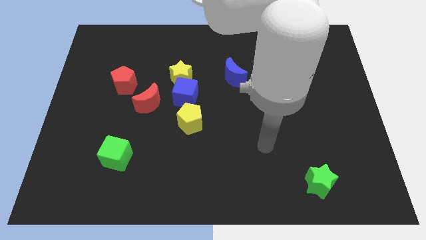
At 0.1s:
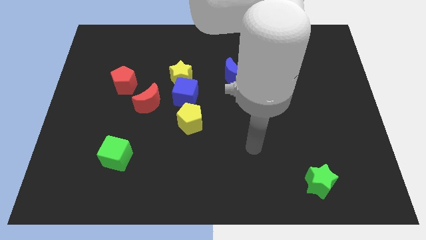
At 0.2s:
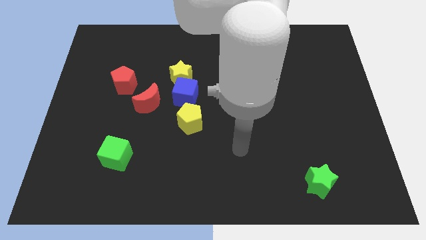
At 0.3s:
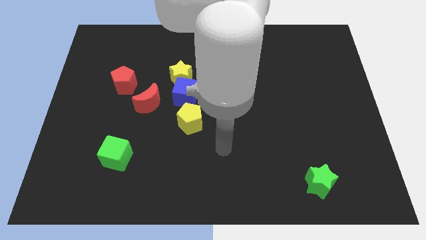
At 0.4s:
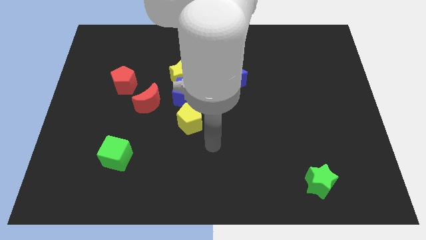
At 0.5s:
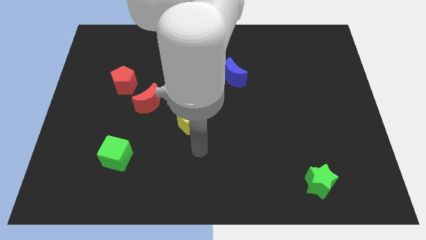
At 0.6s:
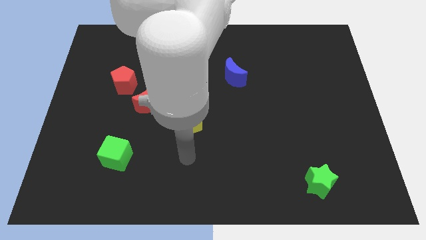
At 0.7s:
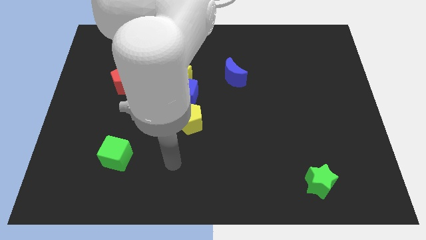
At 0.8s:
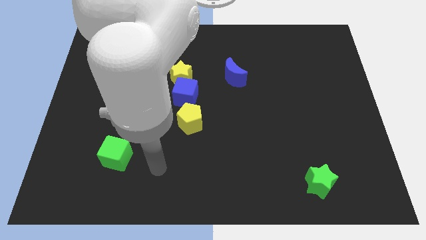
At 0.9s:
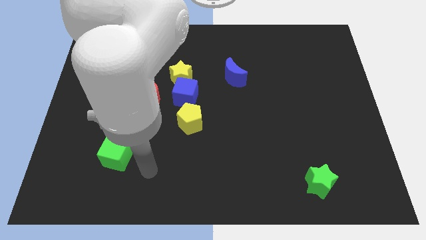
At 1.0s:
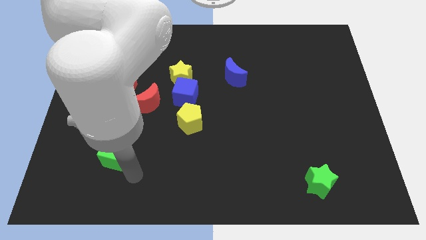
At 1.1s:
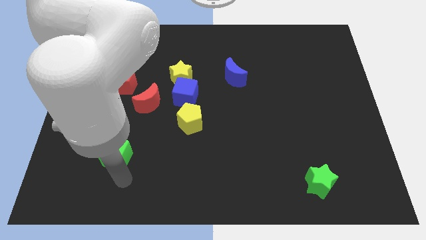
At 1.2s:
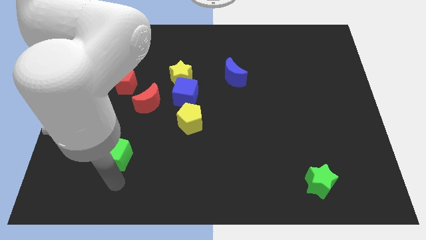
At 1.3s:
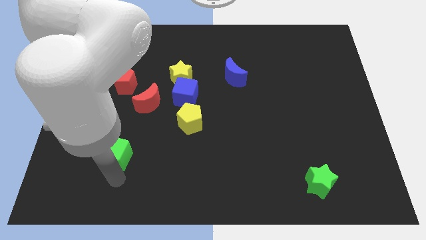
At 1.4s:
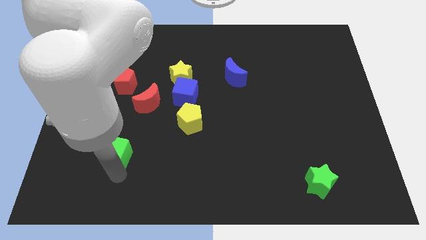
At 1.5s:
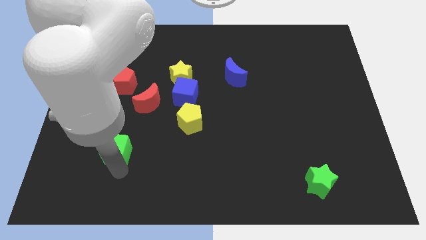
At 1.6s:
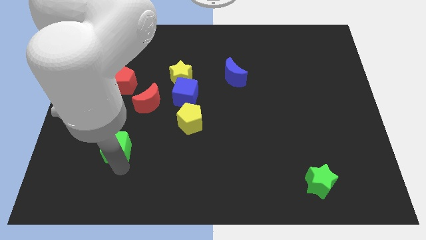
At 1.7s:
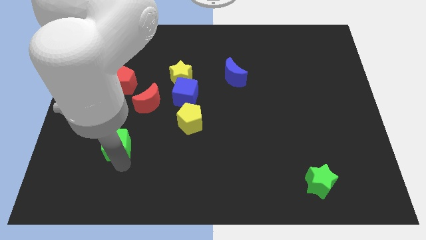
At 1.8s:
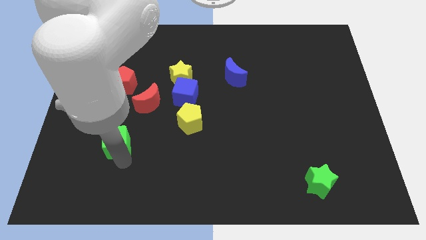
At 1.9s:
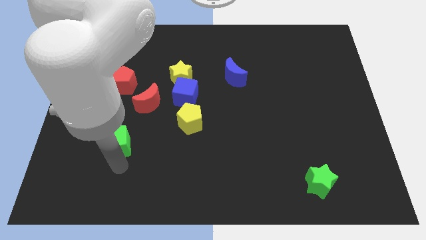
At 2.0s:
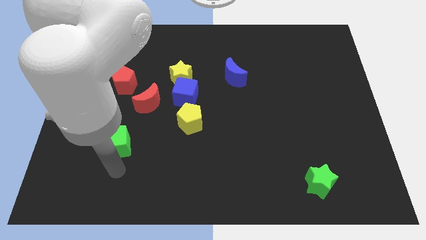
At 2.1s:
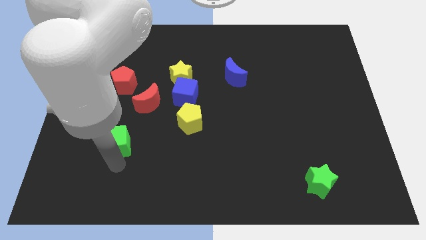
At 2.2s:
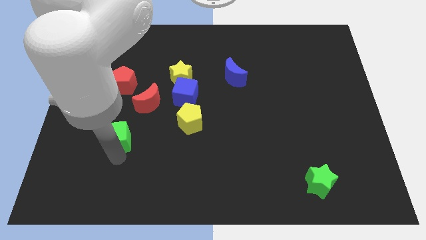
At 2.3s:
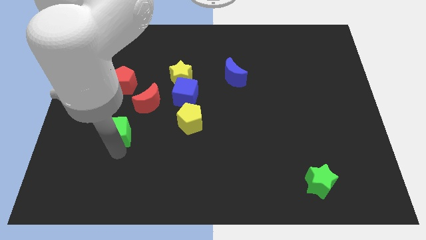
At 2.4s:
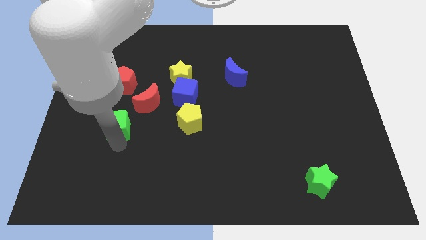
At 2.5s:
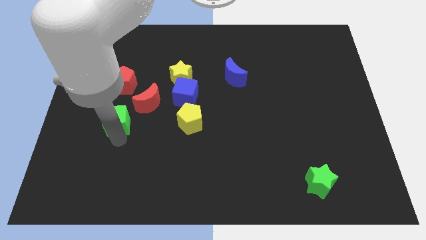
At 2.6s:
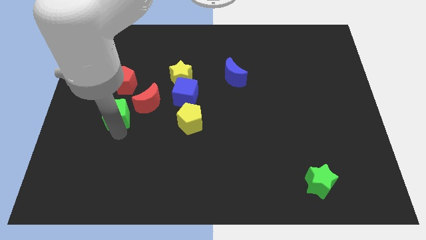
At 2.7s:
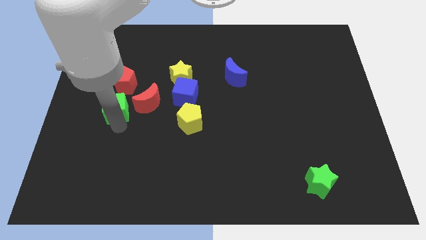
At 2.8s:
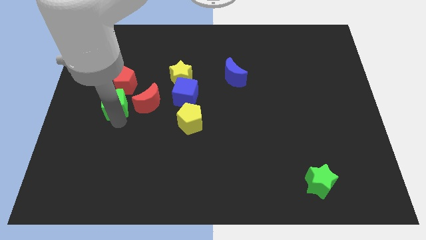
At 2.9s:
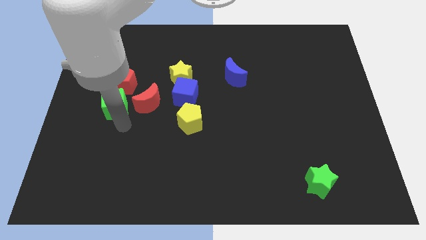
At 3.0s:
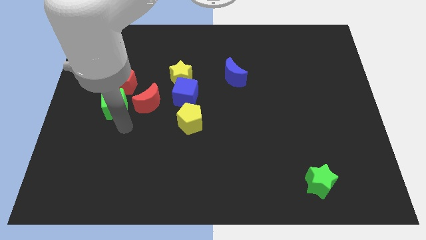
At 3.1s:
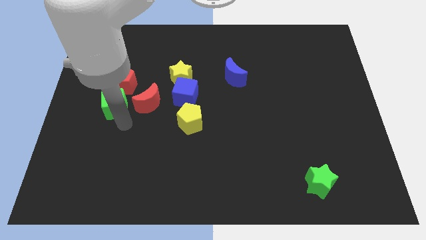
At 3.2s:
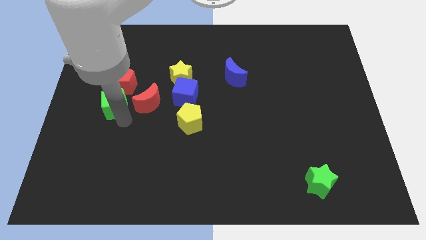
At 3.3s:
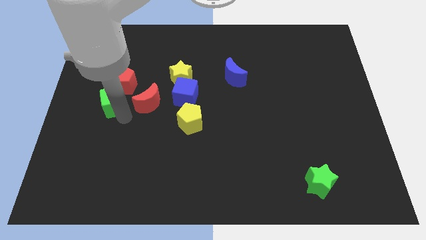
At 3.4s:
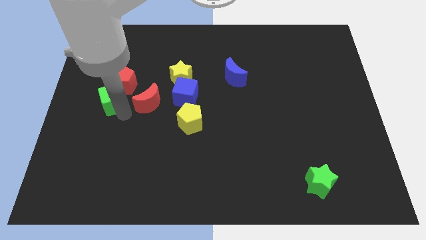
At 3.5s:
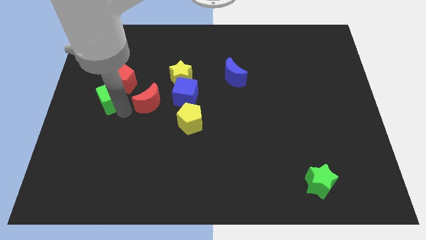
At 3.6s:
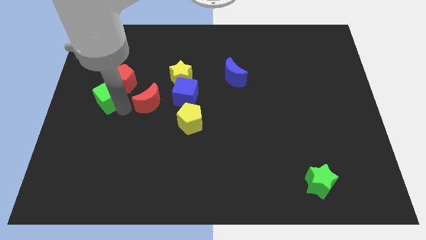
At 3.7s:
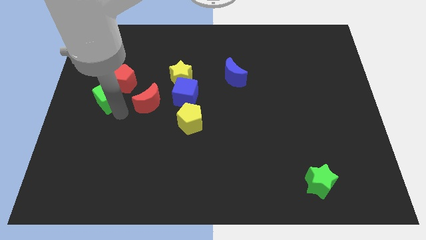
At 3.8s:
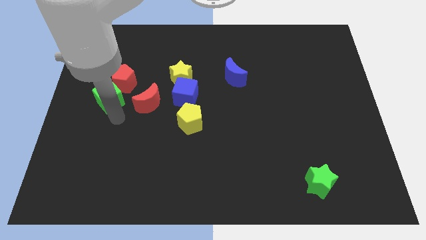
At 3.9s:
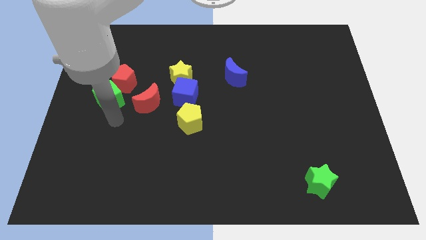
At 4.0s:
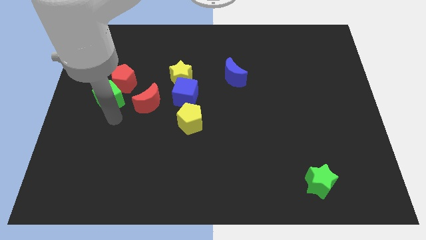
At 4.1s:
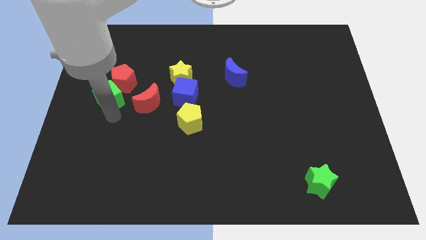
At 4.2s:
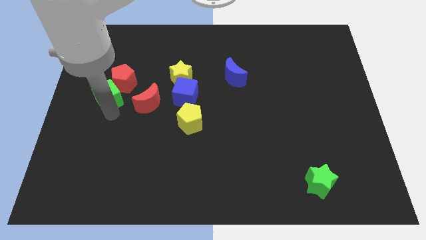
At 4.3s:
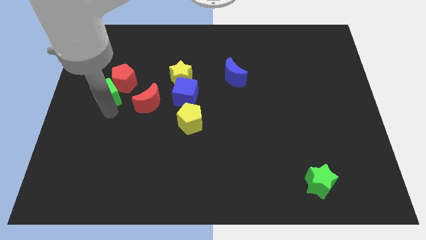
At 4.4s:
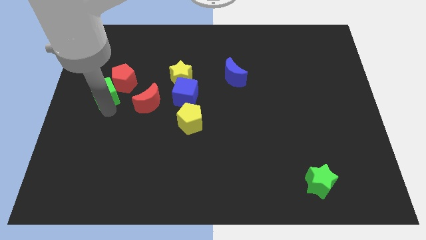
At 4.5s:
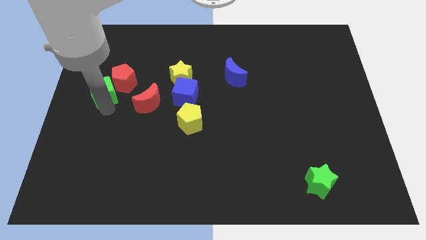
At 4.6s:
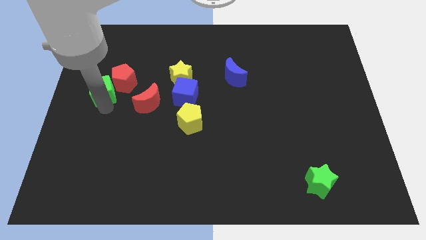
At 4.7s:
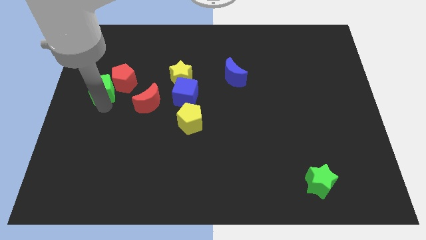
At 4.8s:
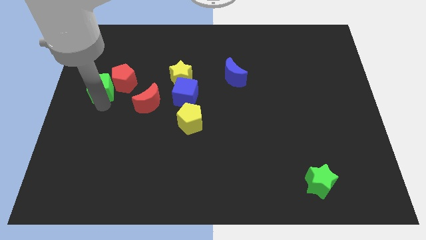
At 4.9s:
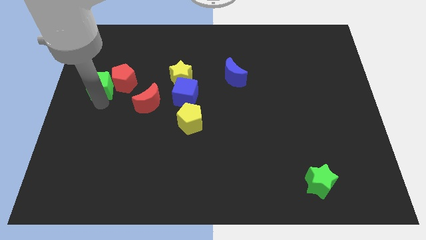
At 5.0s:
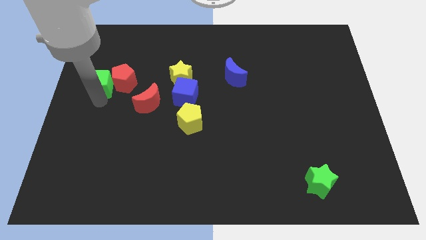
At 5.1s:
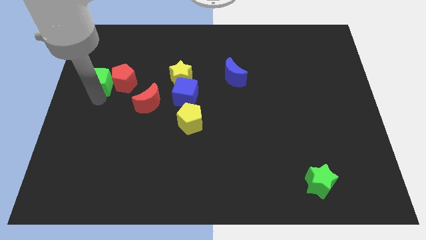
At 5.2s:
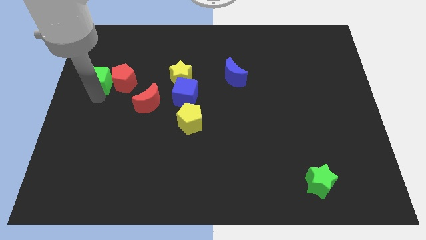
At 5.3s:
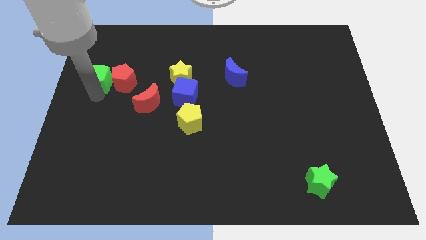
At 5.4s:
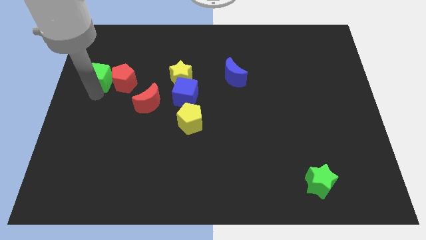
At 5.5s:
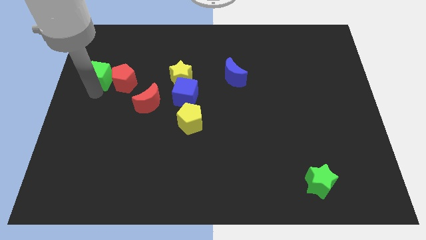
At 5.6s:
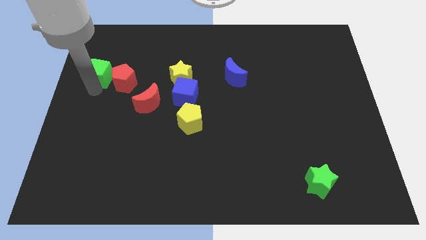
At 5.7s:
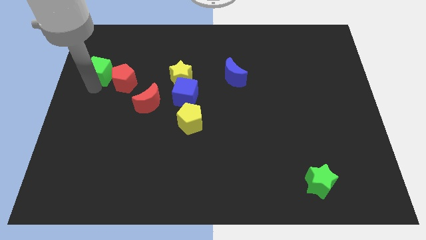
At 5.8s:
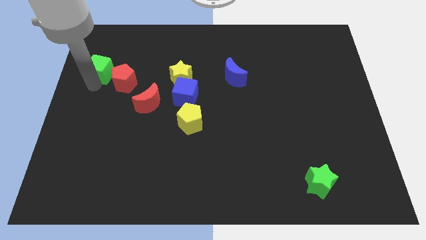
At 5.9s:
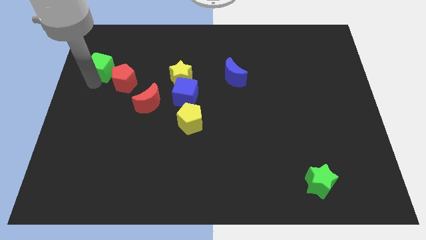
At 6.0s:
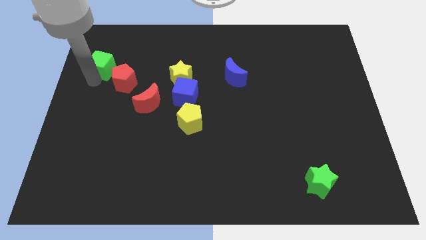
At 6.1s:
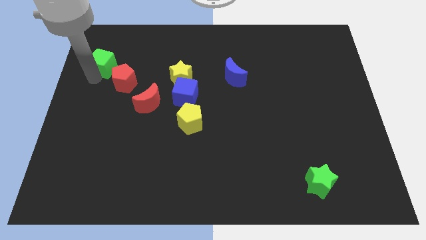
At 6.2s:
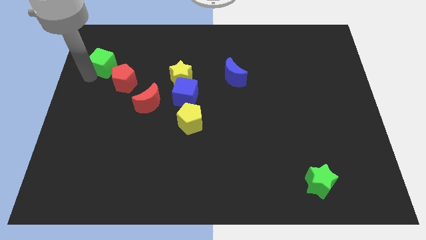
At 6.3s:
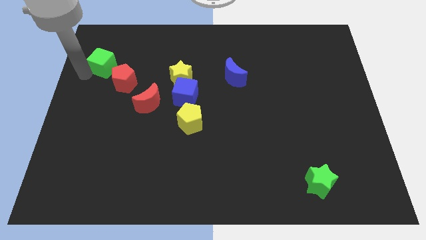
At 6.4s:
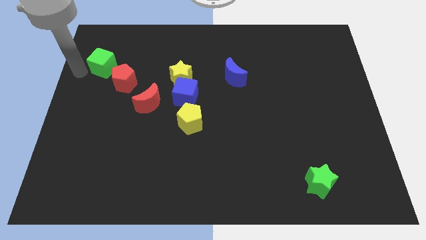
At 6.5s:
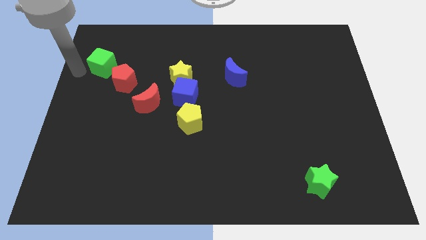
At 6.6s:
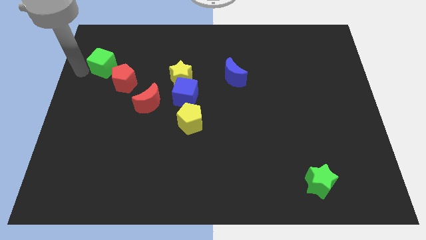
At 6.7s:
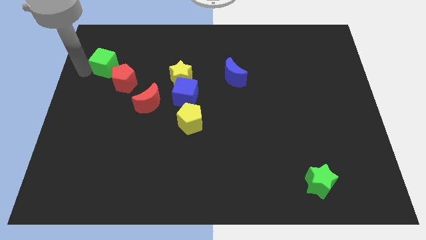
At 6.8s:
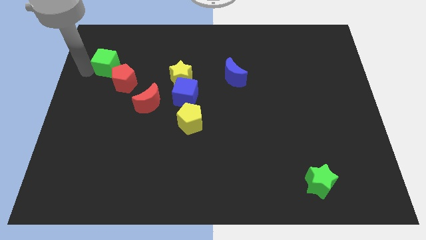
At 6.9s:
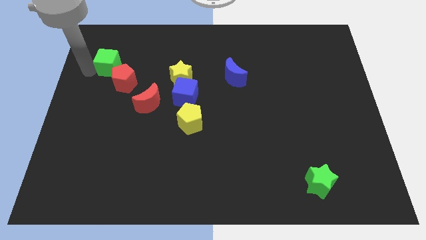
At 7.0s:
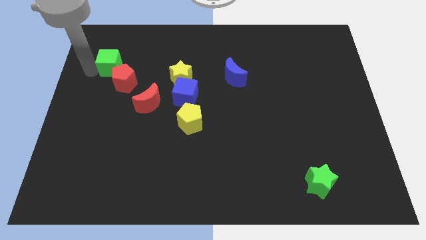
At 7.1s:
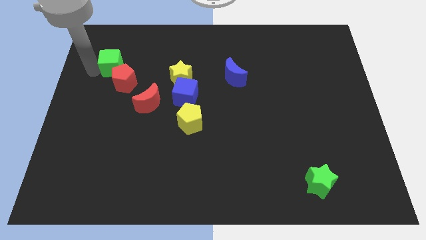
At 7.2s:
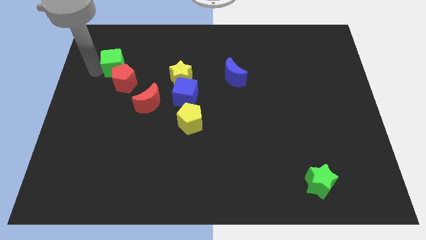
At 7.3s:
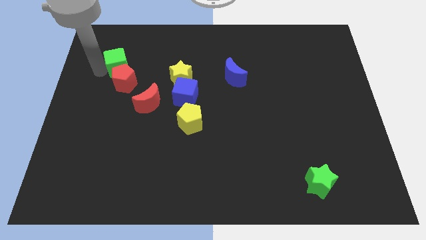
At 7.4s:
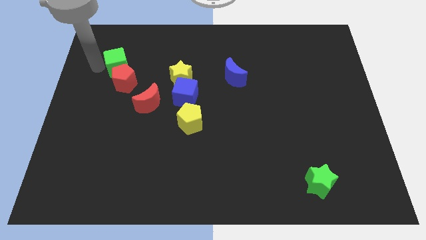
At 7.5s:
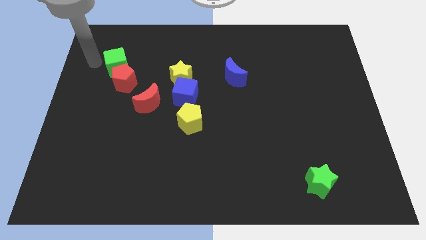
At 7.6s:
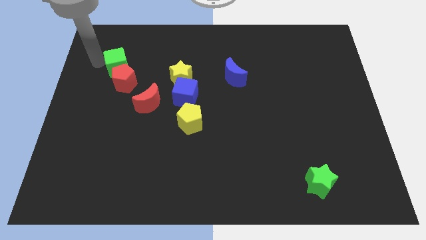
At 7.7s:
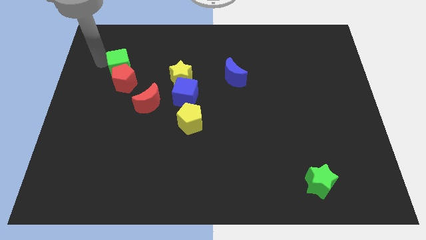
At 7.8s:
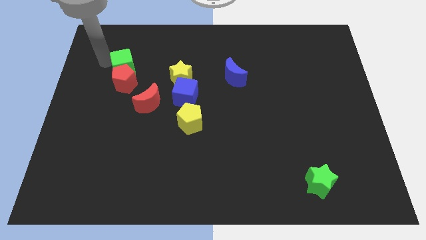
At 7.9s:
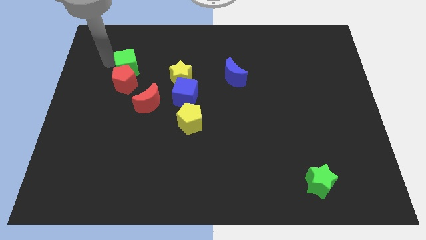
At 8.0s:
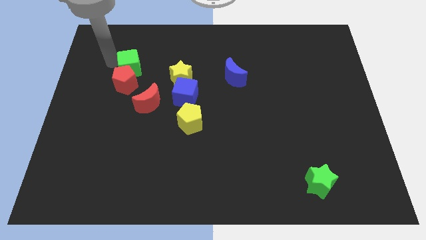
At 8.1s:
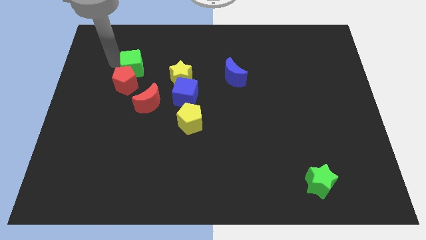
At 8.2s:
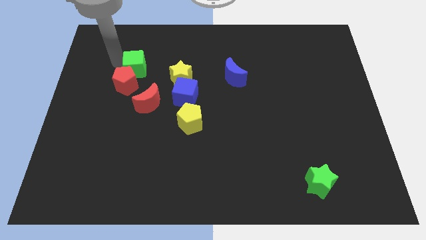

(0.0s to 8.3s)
push the green cube above the red moon
